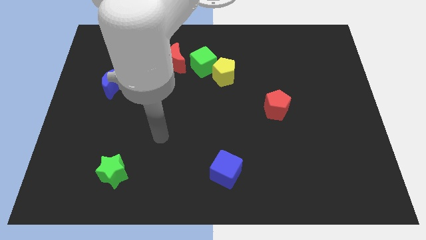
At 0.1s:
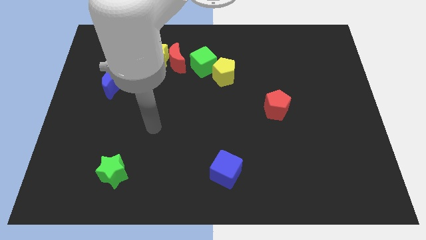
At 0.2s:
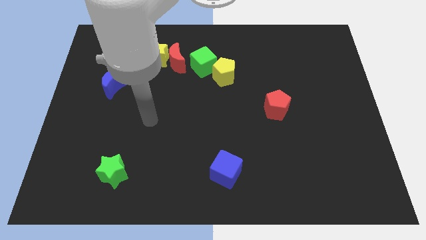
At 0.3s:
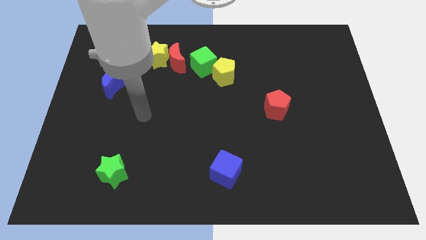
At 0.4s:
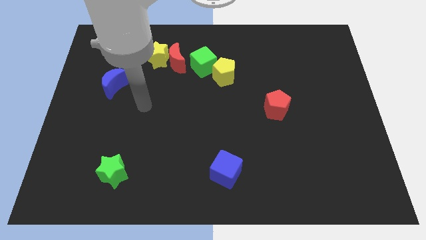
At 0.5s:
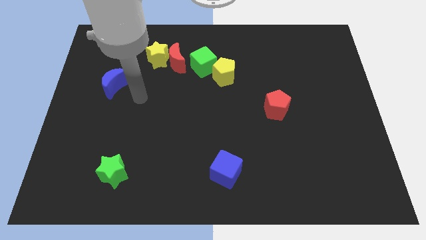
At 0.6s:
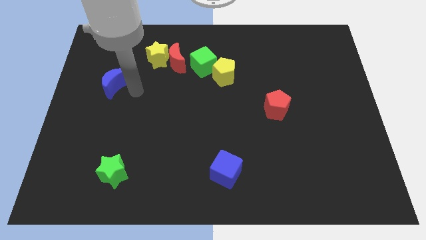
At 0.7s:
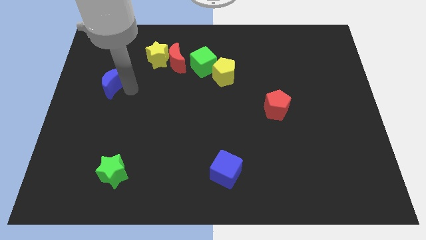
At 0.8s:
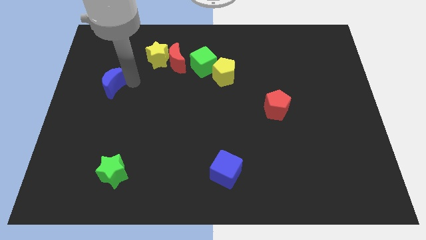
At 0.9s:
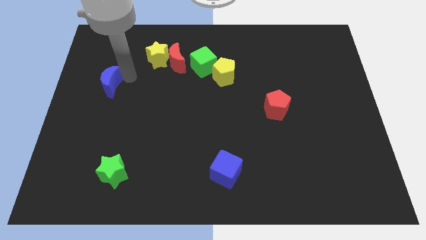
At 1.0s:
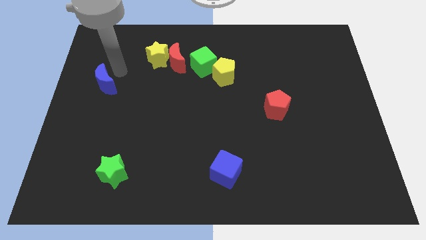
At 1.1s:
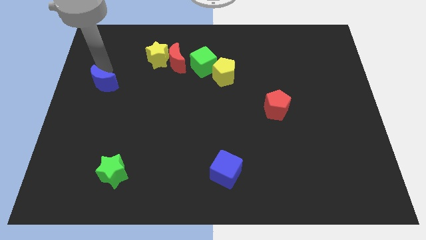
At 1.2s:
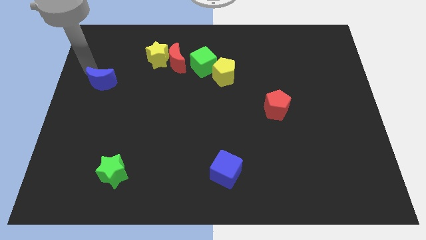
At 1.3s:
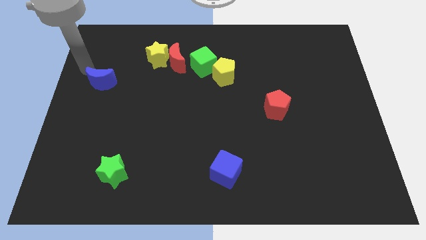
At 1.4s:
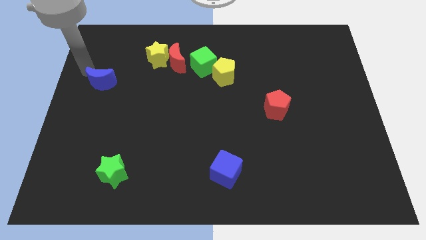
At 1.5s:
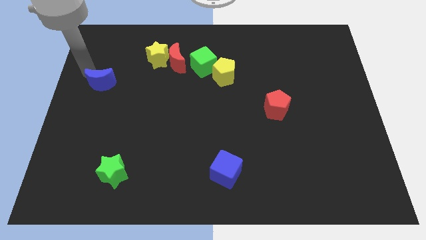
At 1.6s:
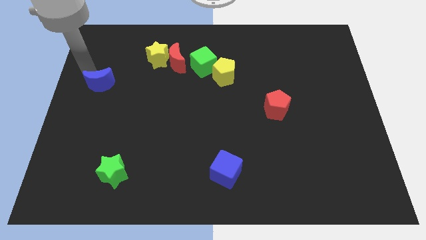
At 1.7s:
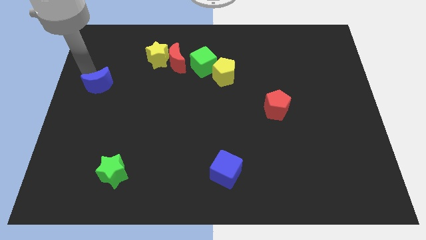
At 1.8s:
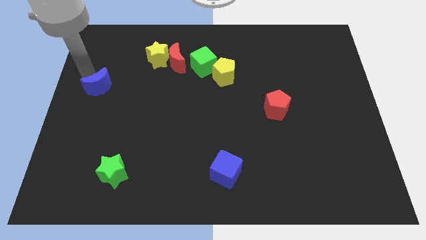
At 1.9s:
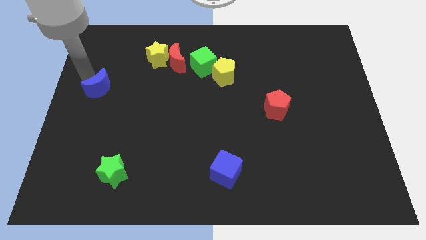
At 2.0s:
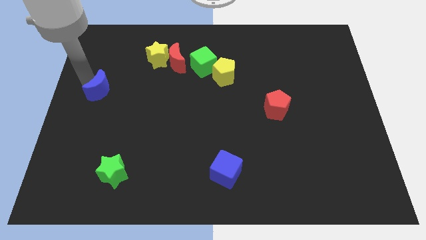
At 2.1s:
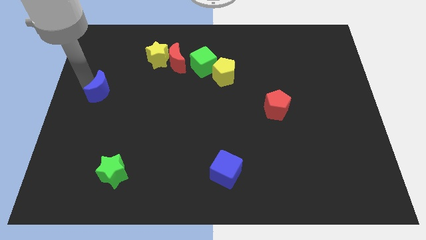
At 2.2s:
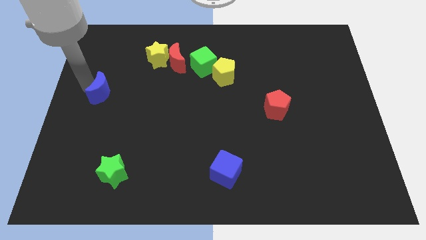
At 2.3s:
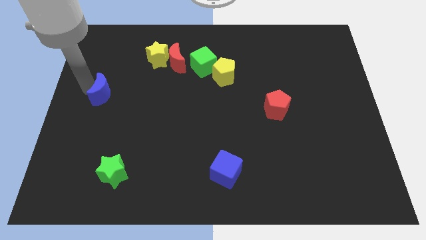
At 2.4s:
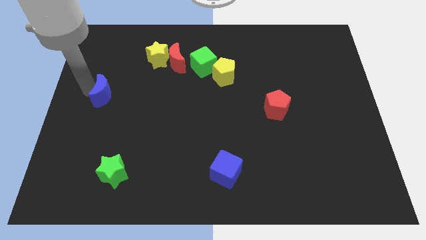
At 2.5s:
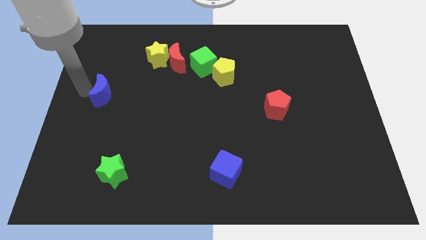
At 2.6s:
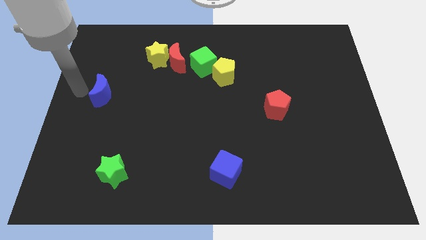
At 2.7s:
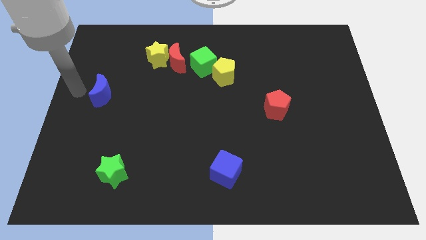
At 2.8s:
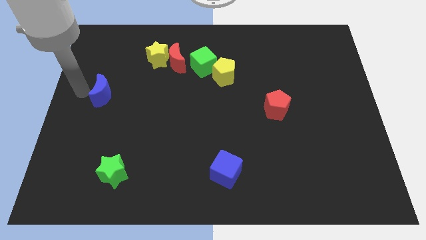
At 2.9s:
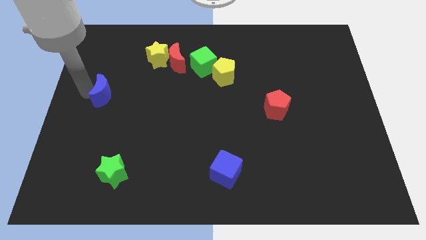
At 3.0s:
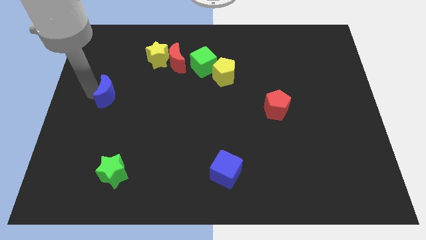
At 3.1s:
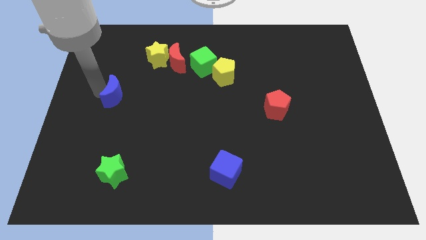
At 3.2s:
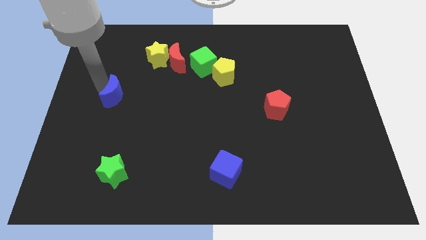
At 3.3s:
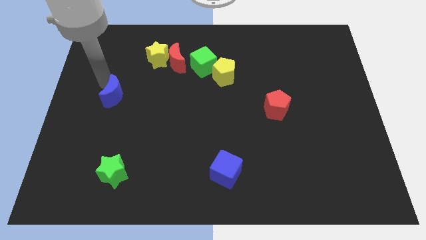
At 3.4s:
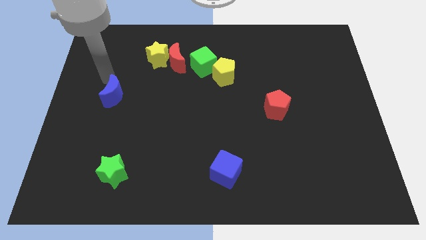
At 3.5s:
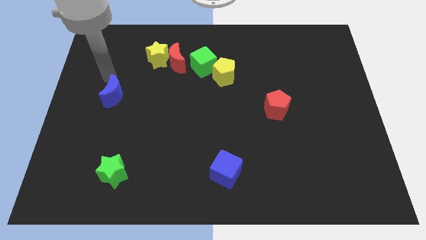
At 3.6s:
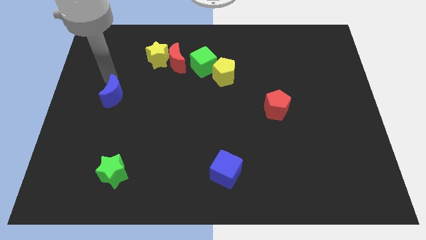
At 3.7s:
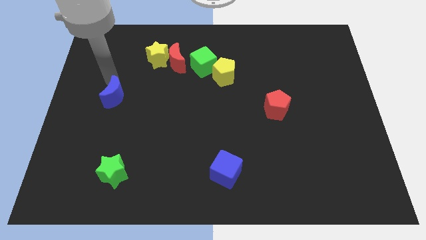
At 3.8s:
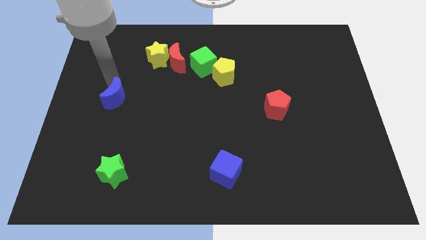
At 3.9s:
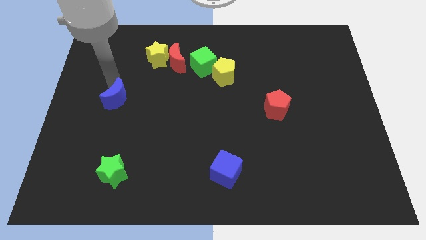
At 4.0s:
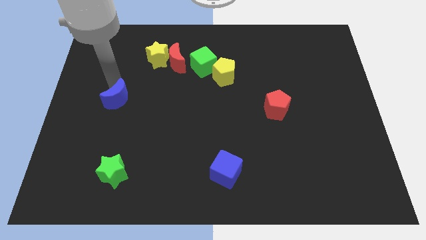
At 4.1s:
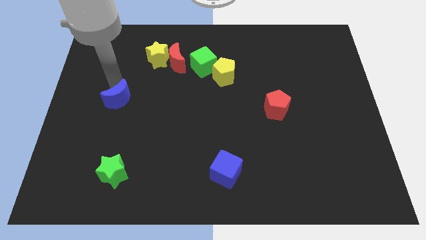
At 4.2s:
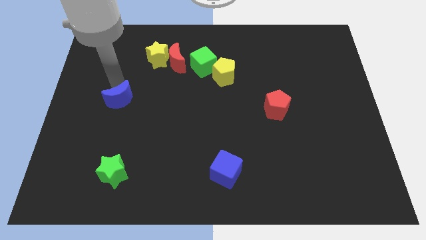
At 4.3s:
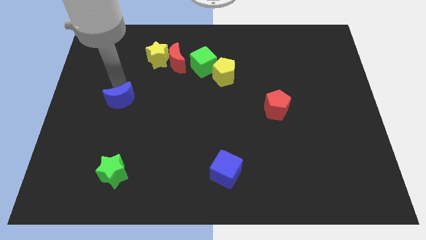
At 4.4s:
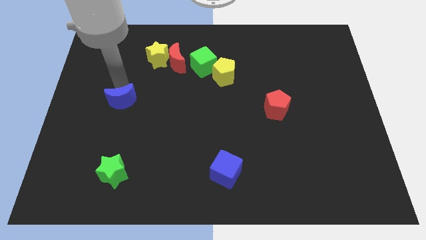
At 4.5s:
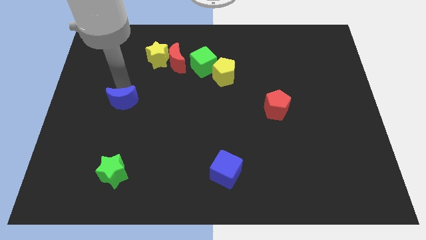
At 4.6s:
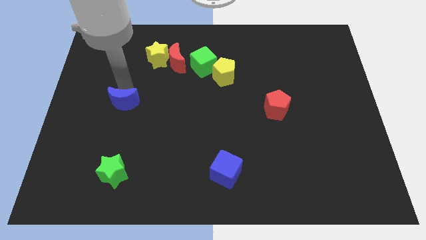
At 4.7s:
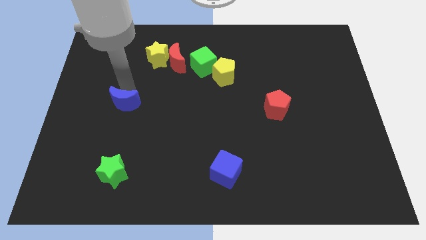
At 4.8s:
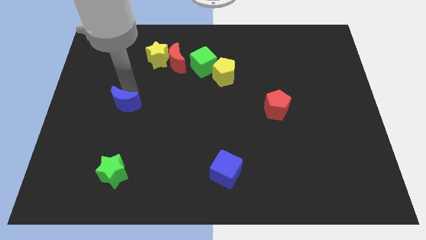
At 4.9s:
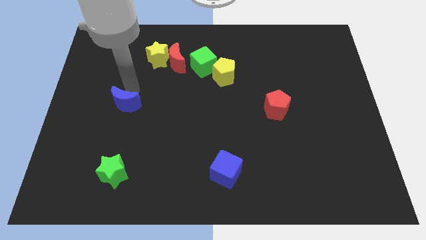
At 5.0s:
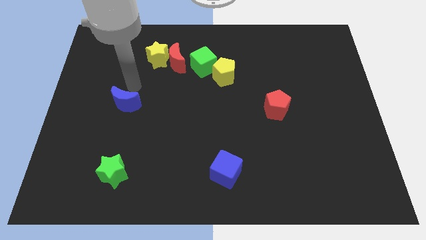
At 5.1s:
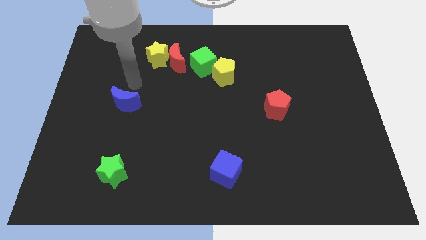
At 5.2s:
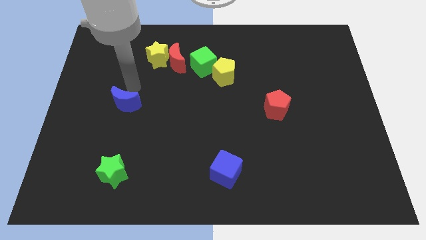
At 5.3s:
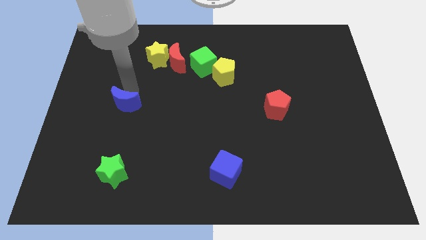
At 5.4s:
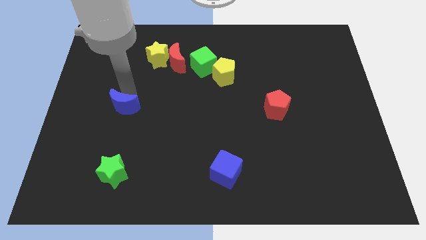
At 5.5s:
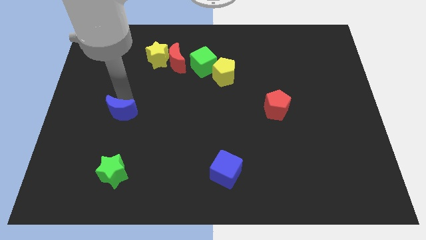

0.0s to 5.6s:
slide the blue moon above the green star

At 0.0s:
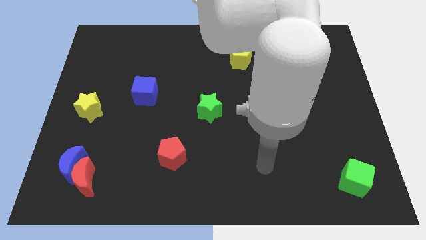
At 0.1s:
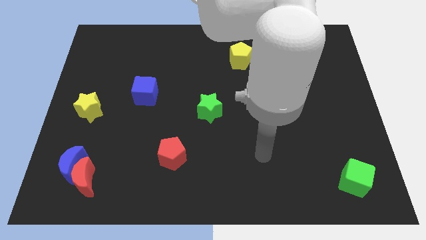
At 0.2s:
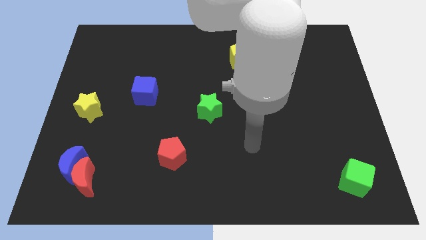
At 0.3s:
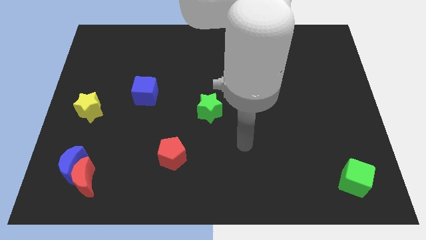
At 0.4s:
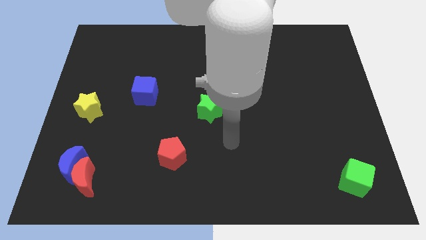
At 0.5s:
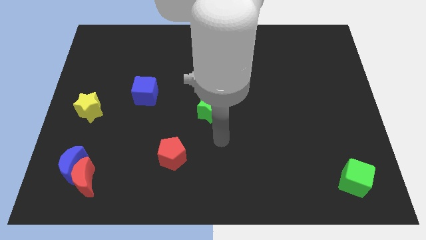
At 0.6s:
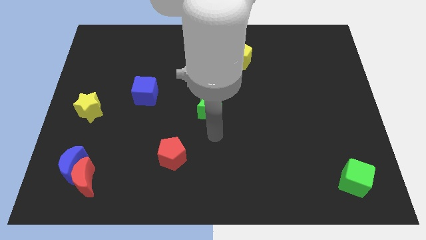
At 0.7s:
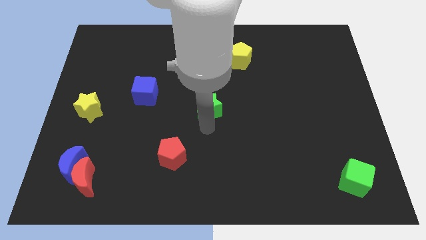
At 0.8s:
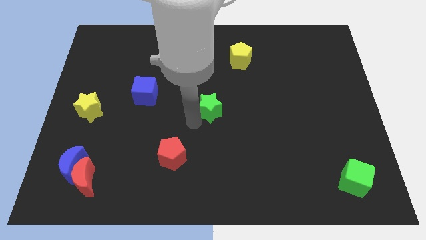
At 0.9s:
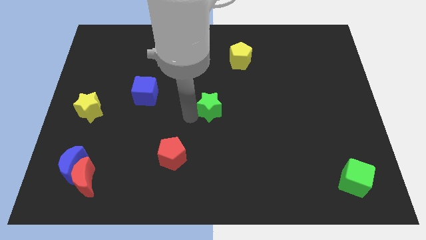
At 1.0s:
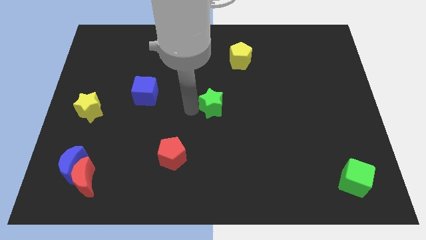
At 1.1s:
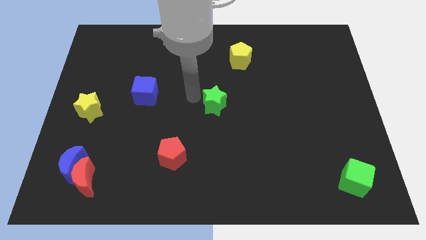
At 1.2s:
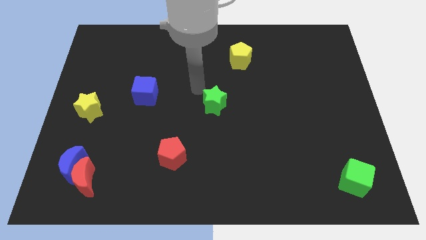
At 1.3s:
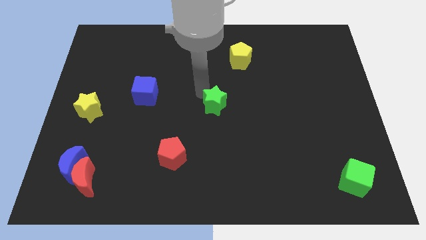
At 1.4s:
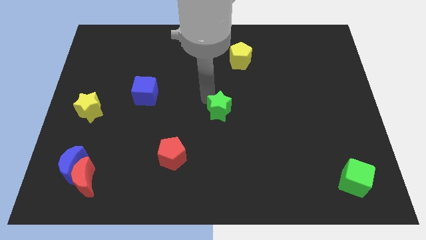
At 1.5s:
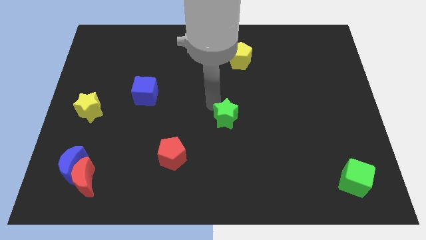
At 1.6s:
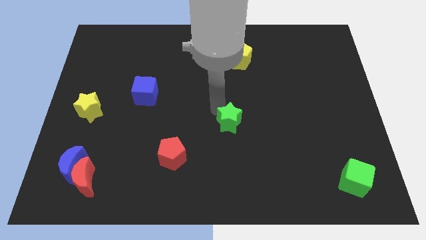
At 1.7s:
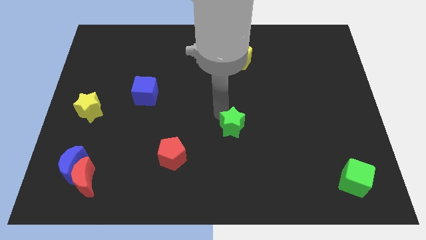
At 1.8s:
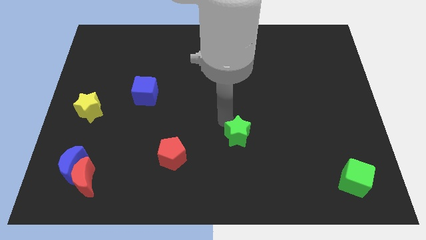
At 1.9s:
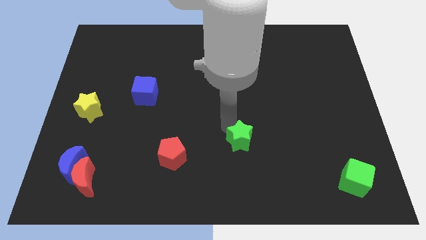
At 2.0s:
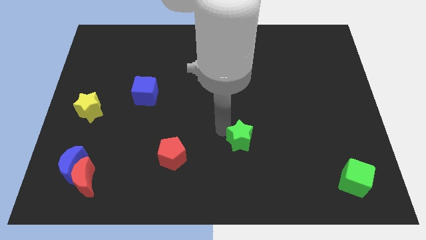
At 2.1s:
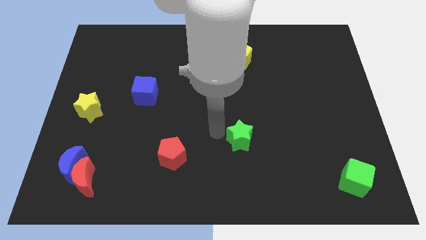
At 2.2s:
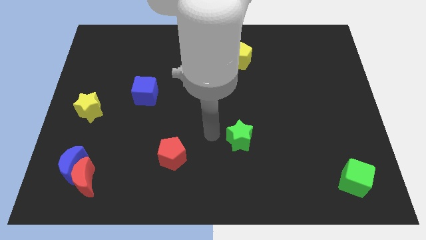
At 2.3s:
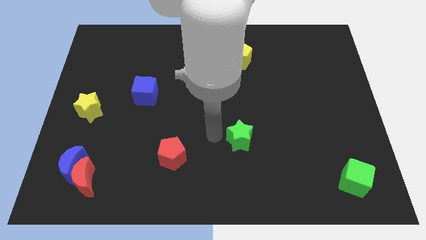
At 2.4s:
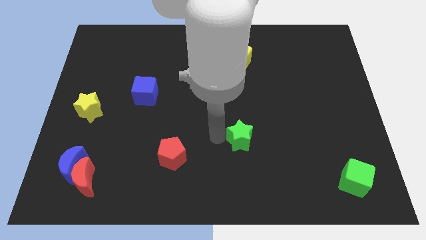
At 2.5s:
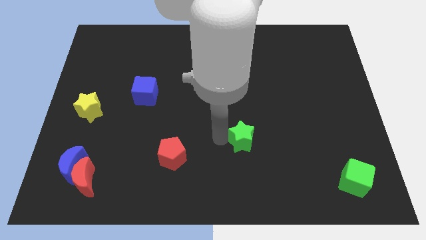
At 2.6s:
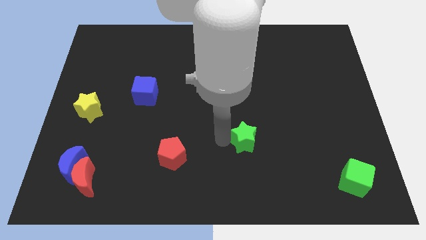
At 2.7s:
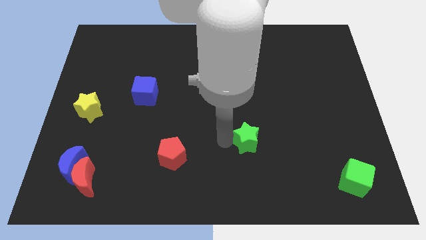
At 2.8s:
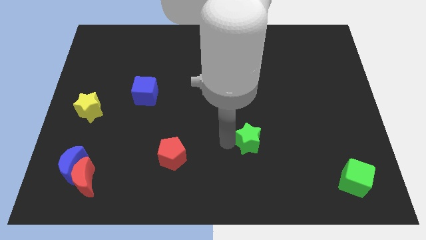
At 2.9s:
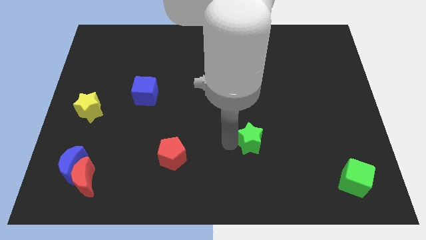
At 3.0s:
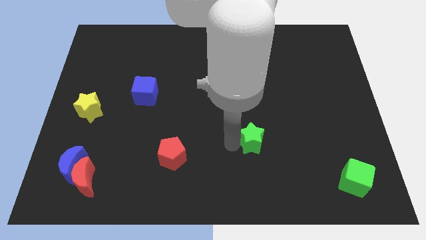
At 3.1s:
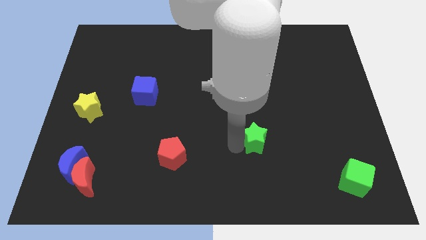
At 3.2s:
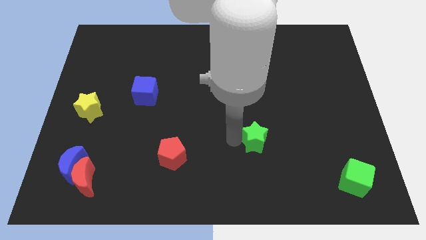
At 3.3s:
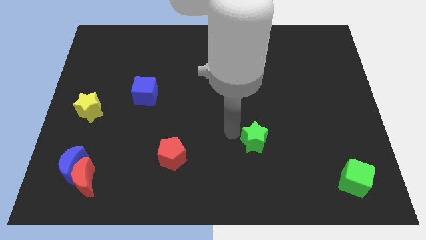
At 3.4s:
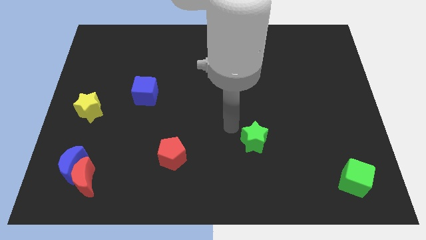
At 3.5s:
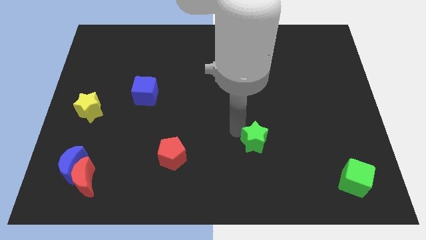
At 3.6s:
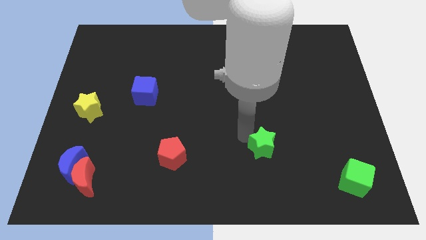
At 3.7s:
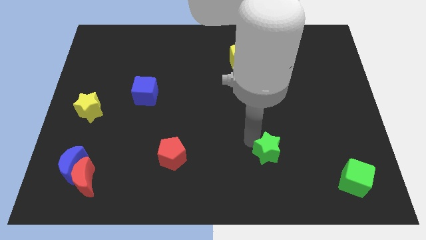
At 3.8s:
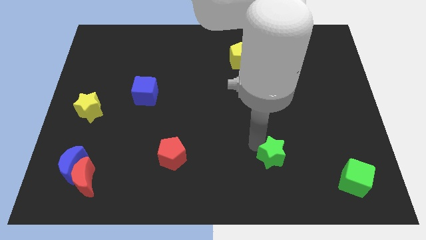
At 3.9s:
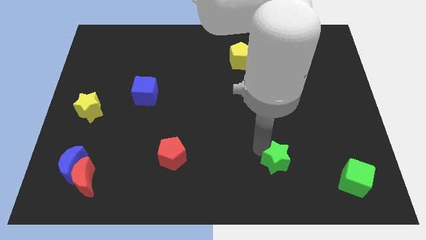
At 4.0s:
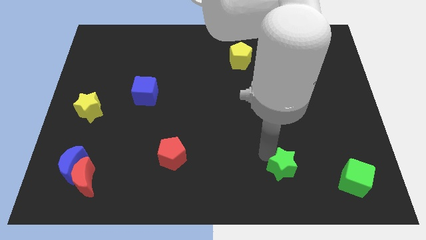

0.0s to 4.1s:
move the green star to the left of the green cube
